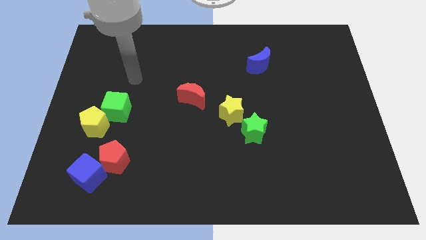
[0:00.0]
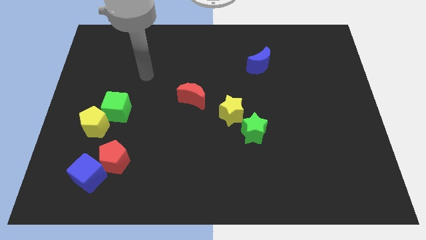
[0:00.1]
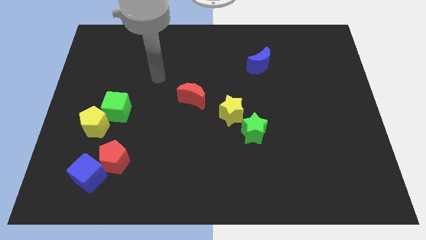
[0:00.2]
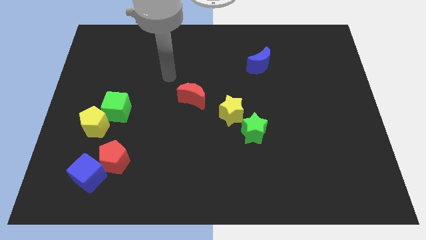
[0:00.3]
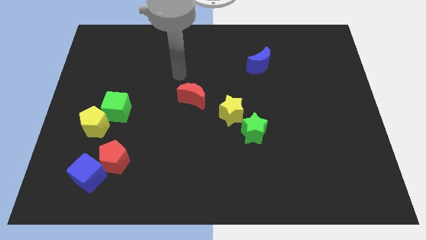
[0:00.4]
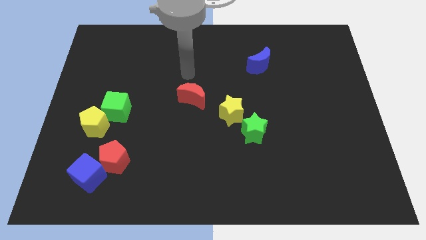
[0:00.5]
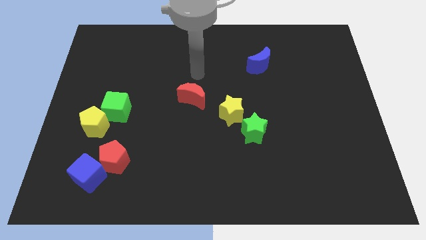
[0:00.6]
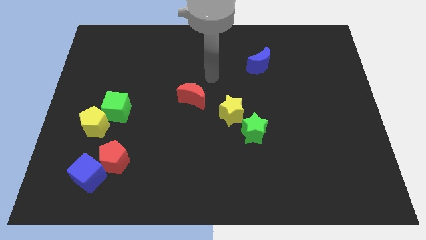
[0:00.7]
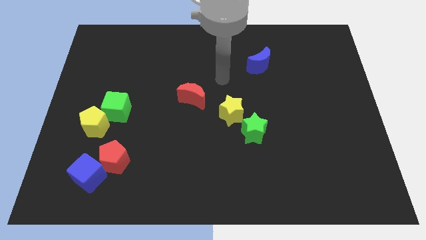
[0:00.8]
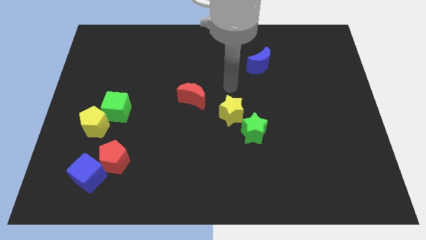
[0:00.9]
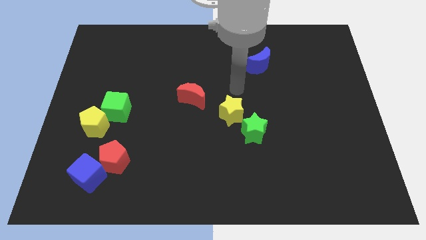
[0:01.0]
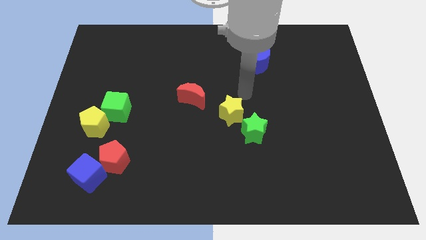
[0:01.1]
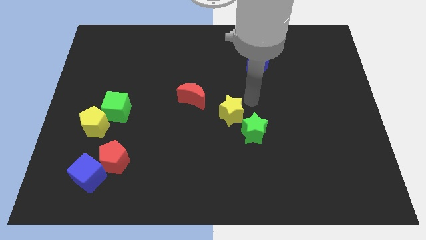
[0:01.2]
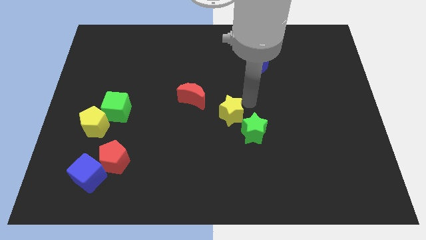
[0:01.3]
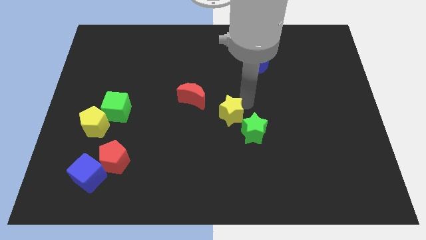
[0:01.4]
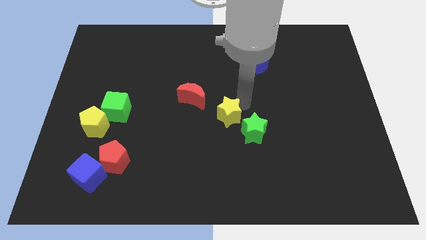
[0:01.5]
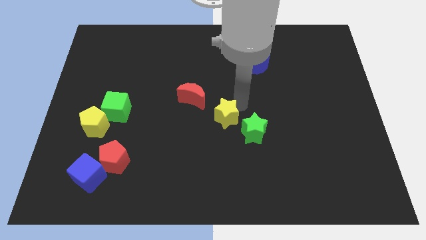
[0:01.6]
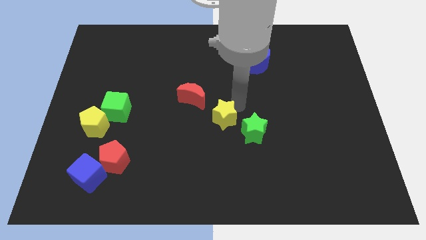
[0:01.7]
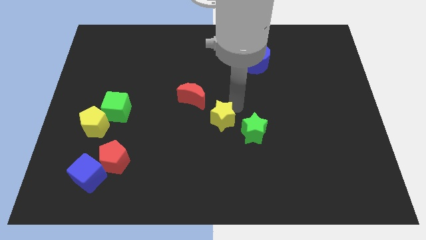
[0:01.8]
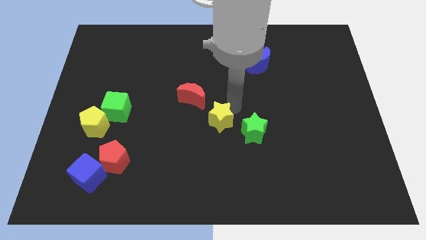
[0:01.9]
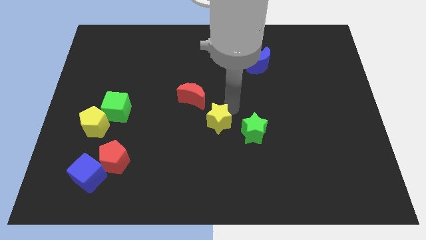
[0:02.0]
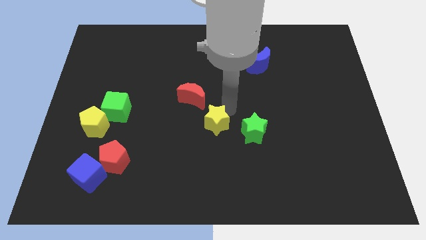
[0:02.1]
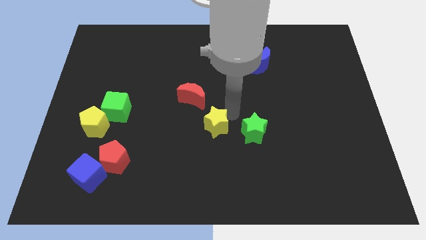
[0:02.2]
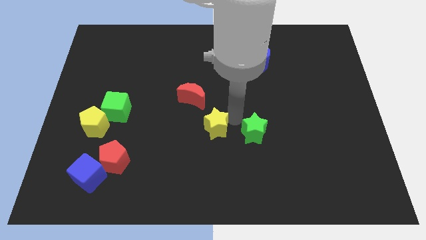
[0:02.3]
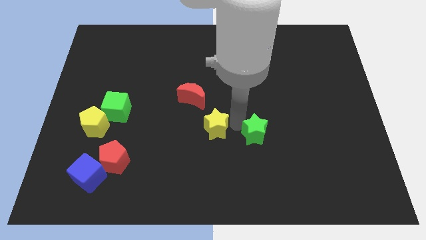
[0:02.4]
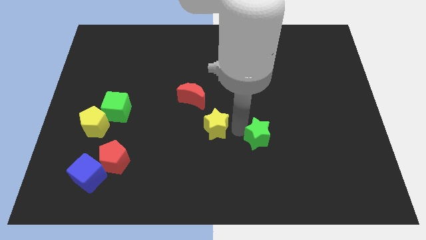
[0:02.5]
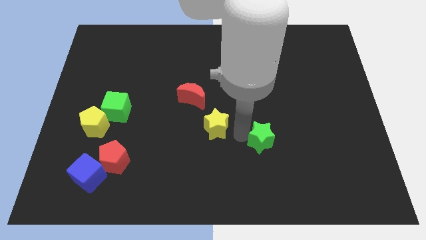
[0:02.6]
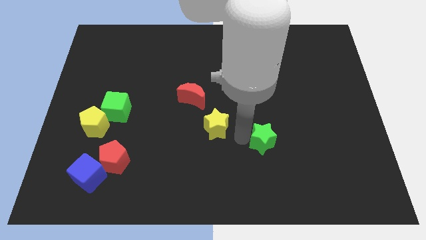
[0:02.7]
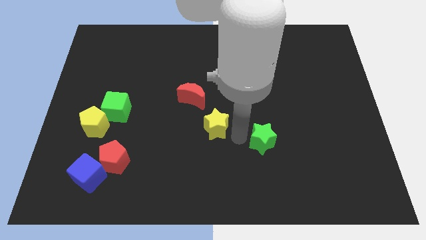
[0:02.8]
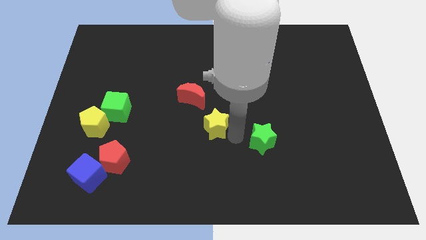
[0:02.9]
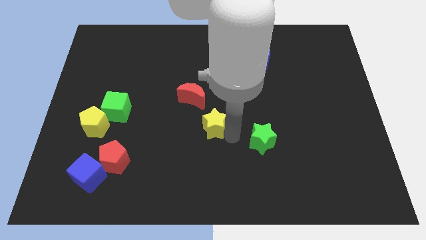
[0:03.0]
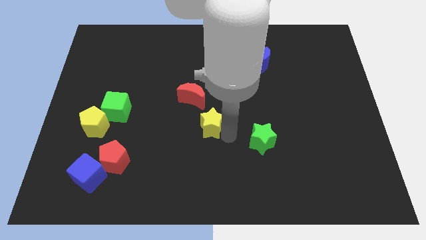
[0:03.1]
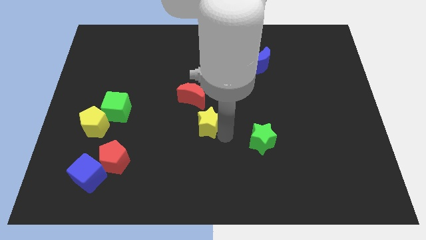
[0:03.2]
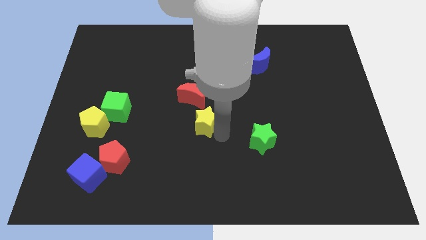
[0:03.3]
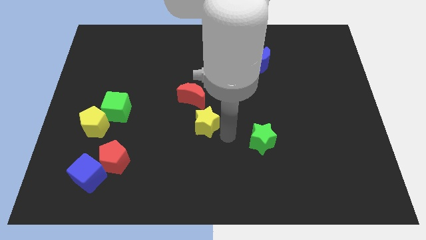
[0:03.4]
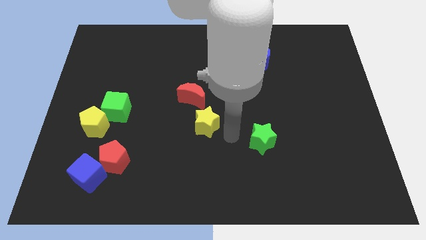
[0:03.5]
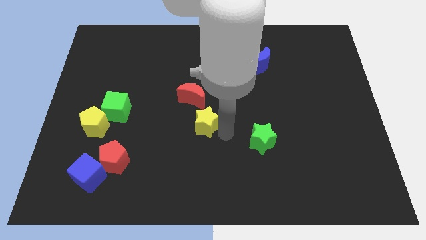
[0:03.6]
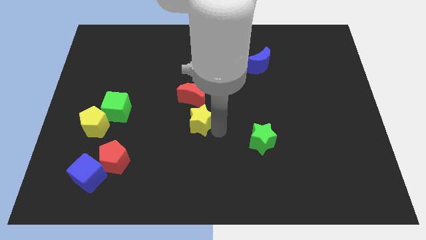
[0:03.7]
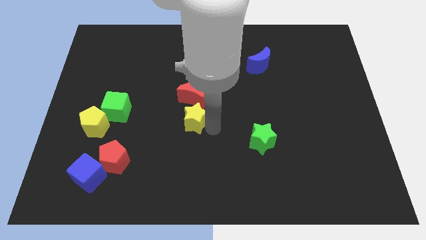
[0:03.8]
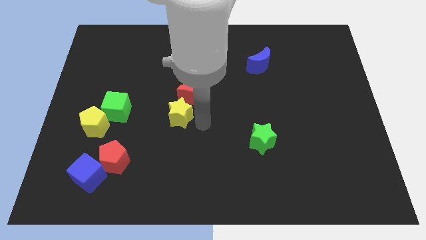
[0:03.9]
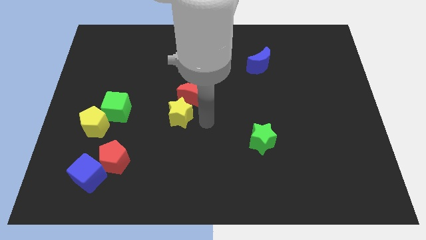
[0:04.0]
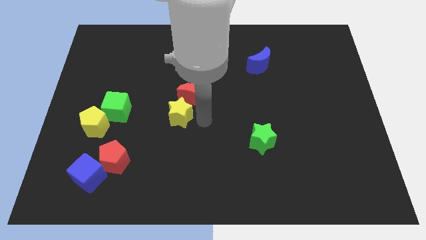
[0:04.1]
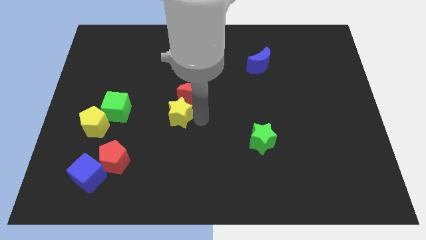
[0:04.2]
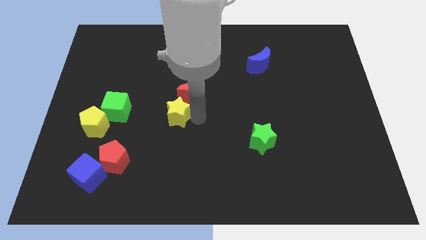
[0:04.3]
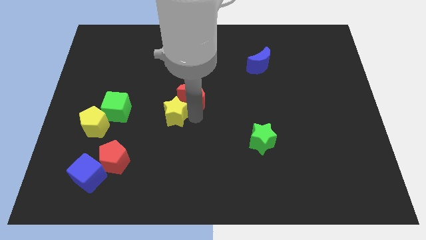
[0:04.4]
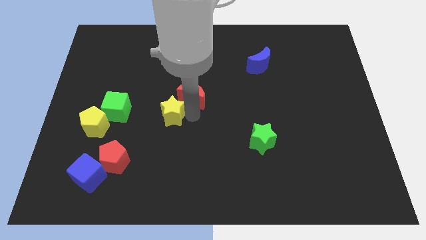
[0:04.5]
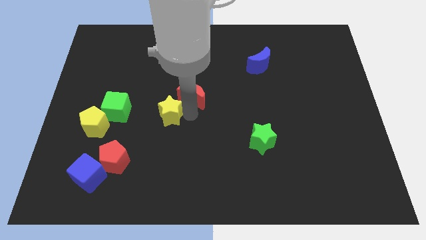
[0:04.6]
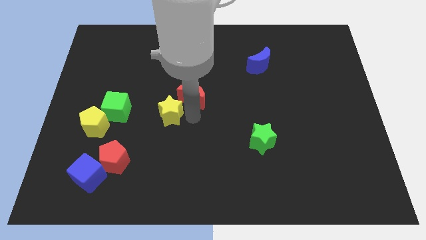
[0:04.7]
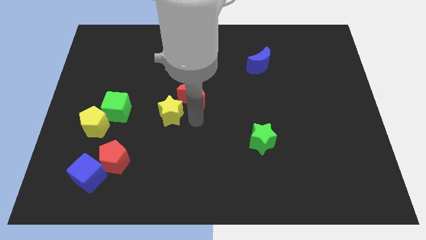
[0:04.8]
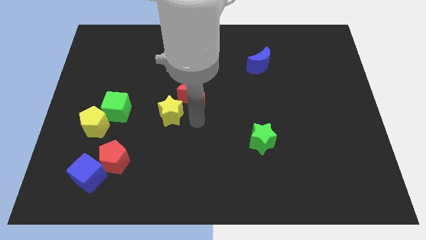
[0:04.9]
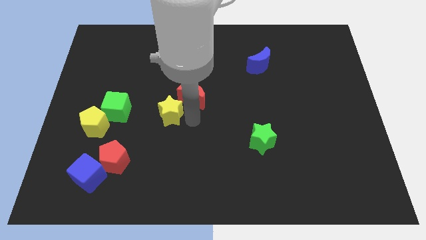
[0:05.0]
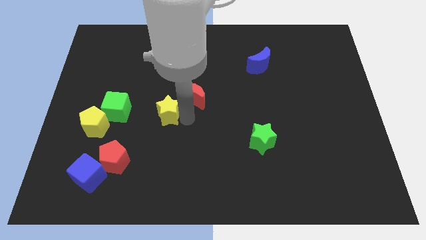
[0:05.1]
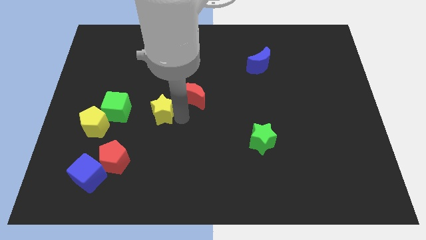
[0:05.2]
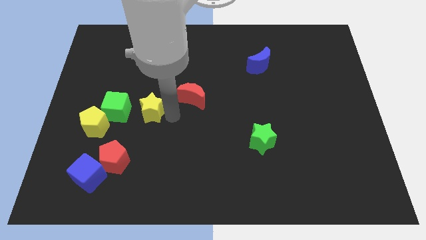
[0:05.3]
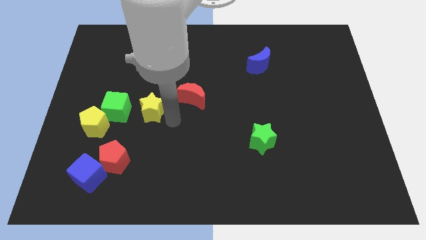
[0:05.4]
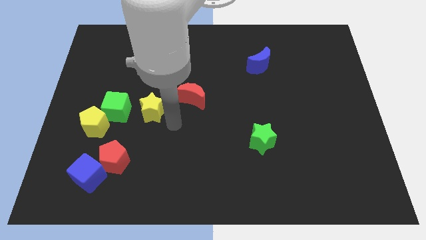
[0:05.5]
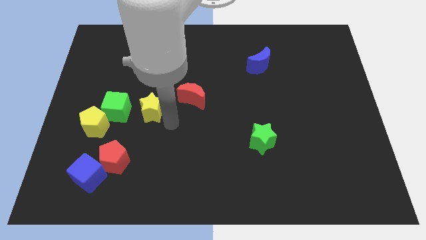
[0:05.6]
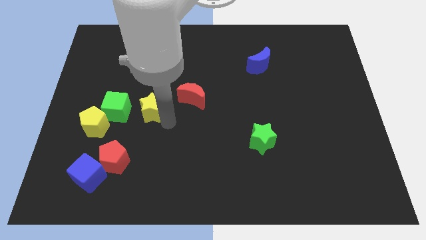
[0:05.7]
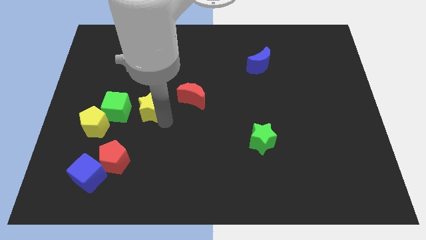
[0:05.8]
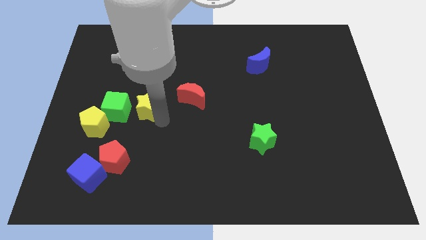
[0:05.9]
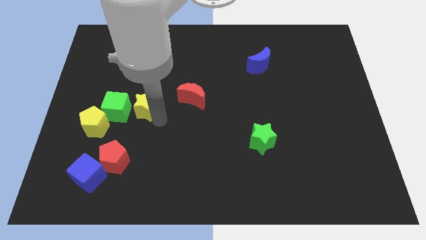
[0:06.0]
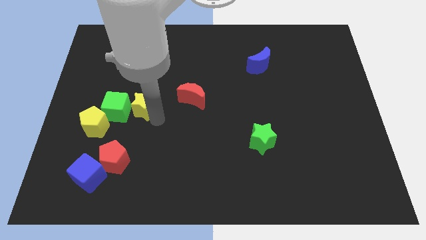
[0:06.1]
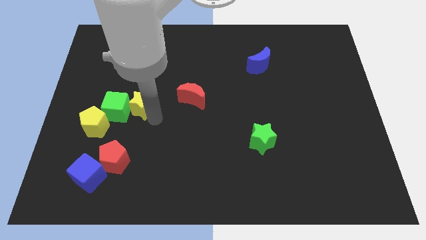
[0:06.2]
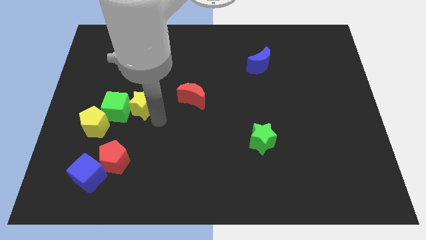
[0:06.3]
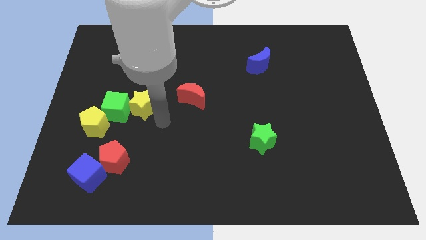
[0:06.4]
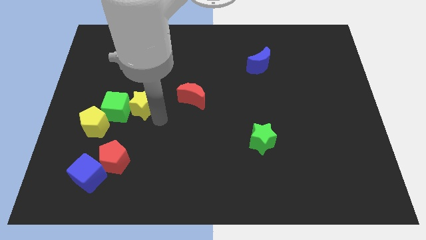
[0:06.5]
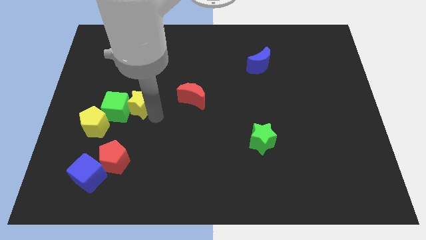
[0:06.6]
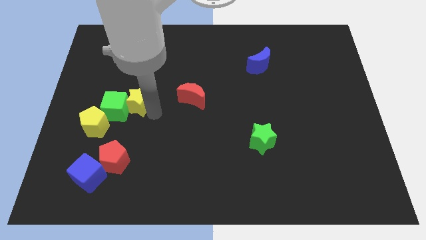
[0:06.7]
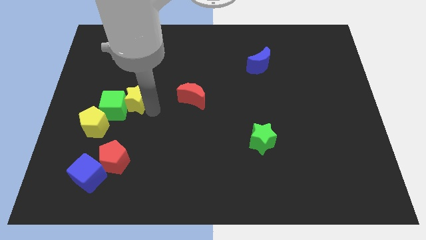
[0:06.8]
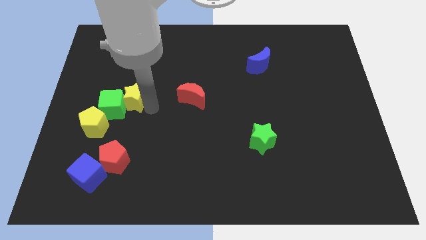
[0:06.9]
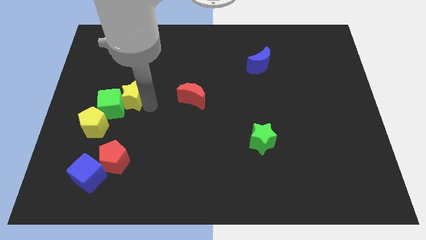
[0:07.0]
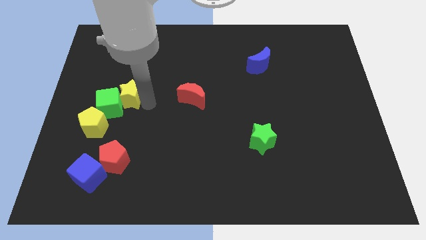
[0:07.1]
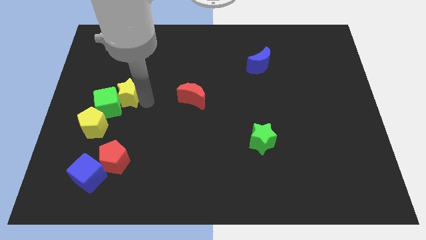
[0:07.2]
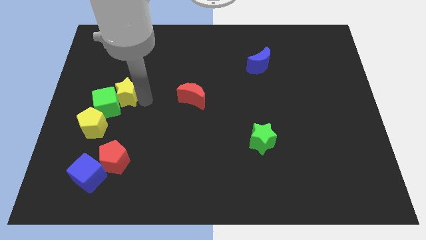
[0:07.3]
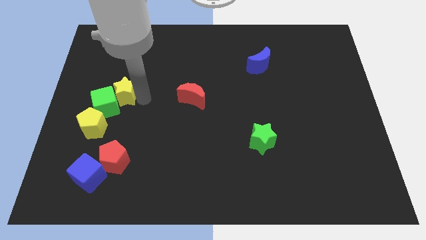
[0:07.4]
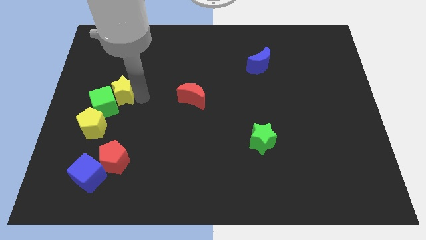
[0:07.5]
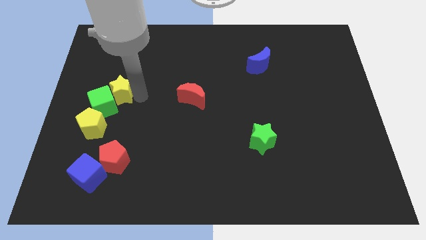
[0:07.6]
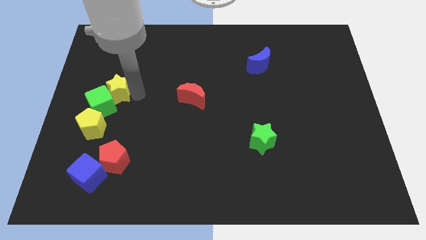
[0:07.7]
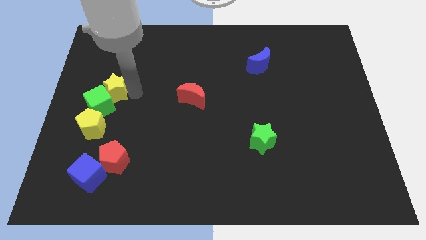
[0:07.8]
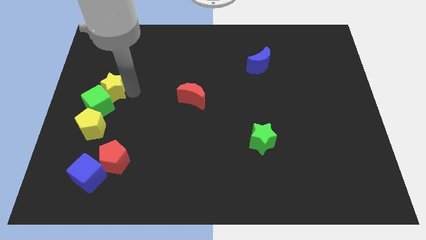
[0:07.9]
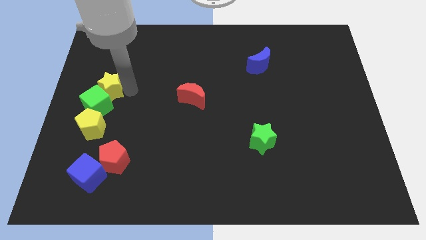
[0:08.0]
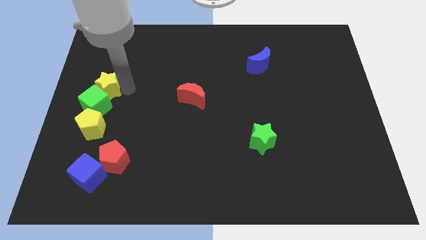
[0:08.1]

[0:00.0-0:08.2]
put the yellow star to the center left
